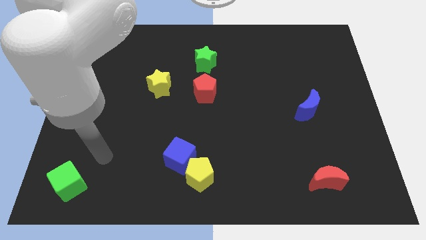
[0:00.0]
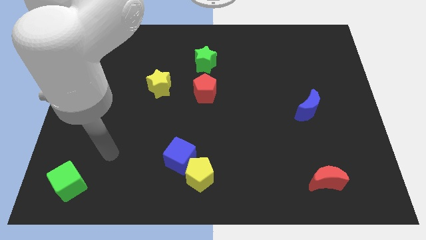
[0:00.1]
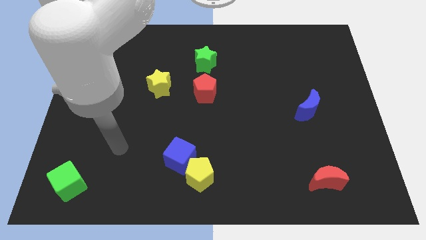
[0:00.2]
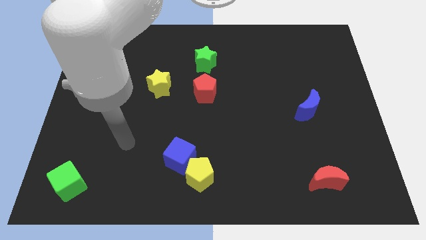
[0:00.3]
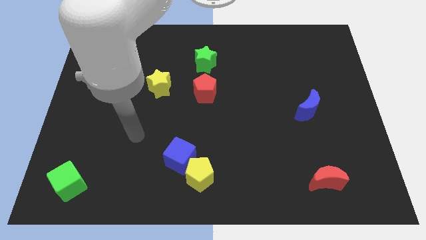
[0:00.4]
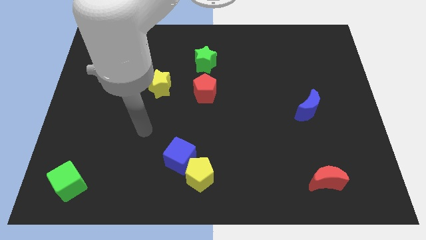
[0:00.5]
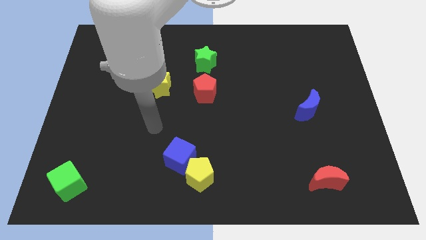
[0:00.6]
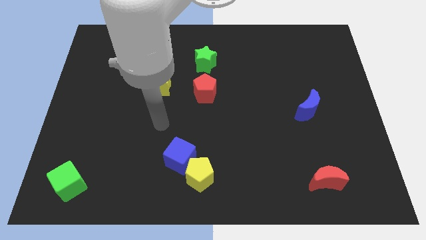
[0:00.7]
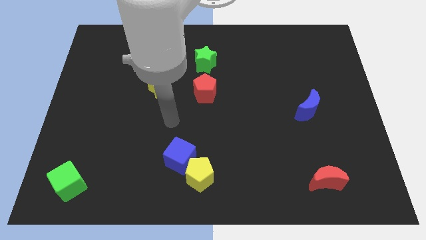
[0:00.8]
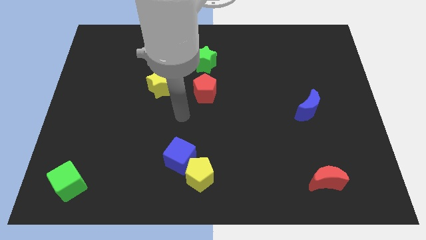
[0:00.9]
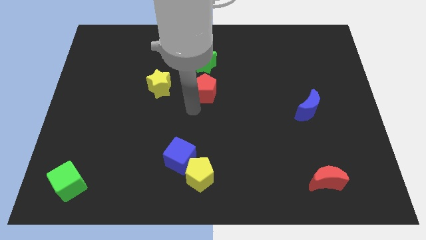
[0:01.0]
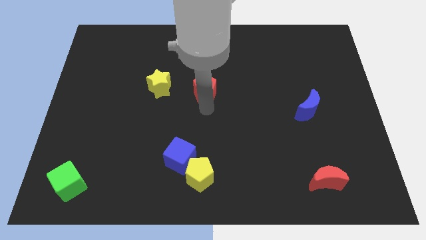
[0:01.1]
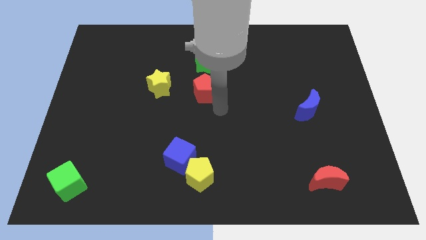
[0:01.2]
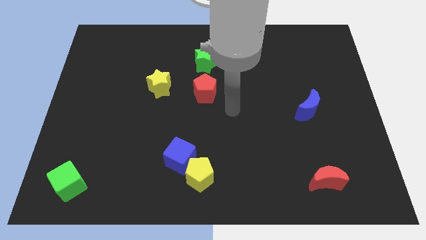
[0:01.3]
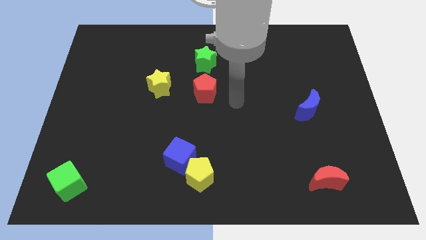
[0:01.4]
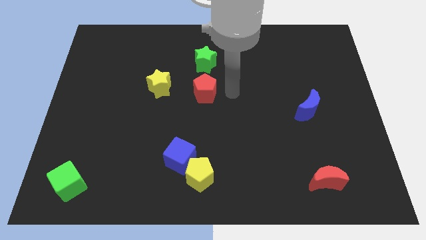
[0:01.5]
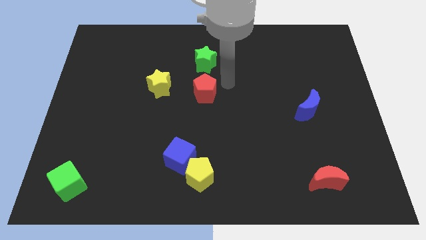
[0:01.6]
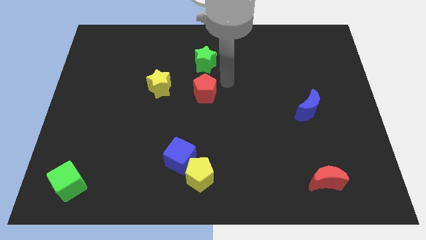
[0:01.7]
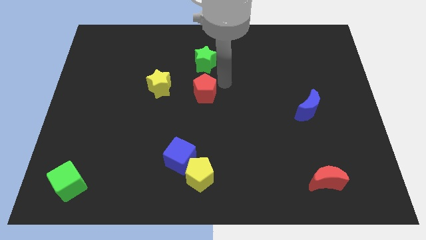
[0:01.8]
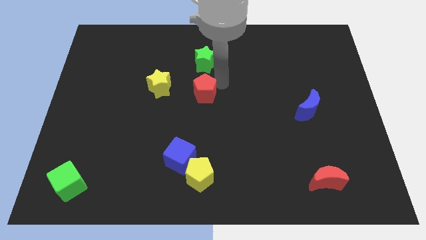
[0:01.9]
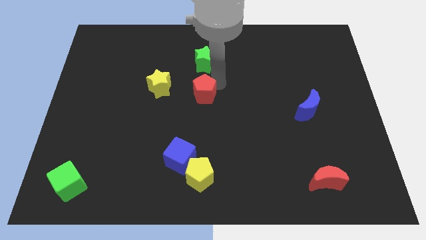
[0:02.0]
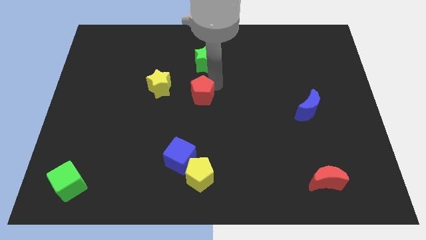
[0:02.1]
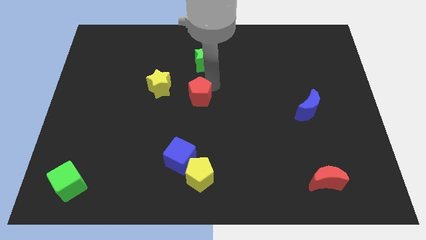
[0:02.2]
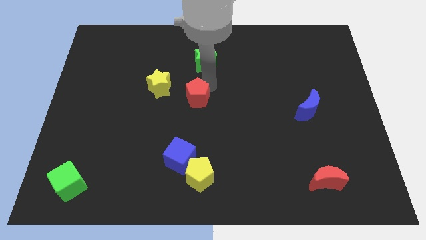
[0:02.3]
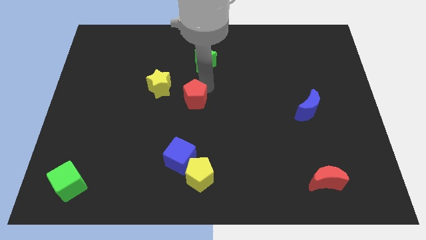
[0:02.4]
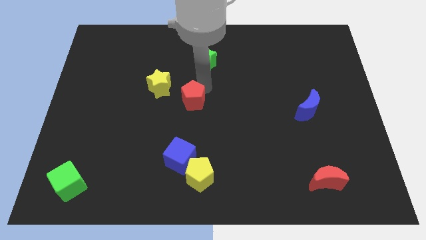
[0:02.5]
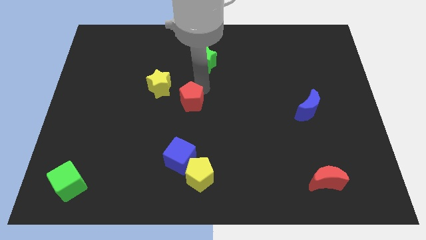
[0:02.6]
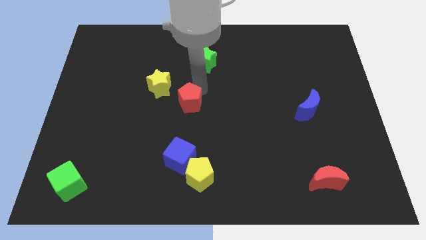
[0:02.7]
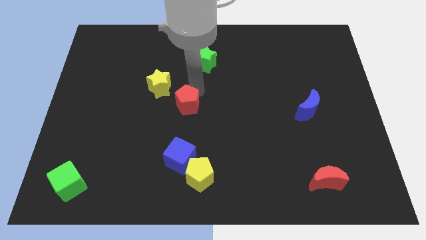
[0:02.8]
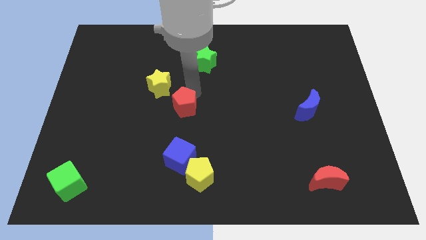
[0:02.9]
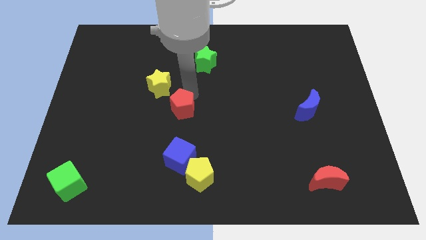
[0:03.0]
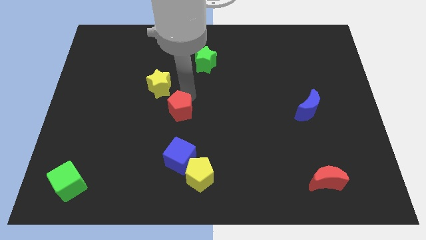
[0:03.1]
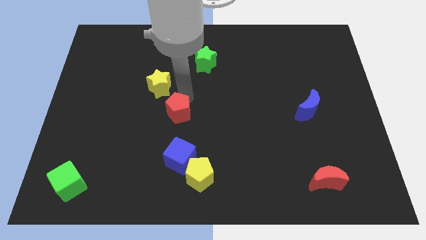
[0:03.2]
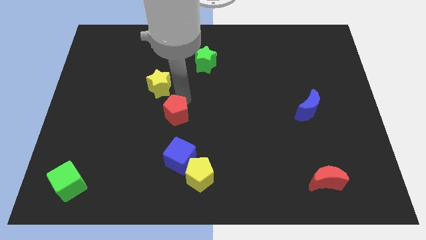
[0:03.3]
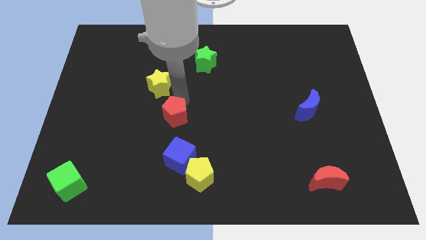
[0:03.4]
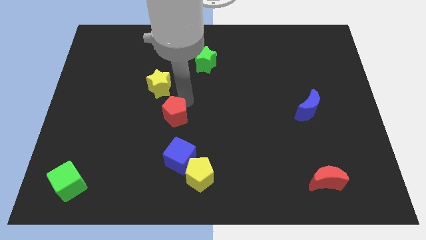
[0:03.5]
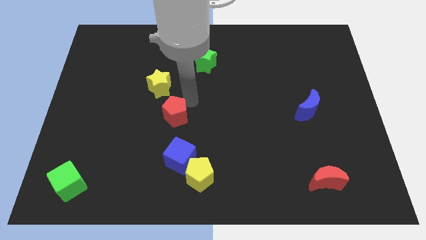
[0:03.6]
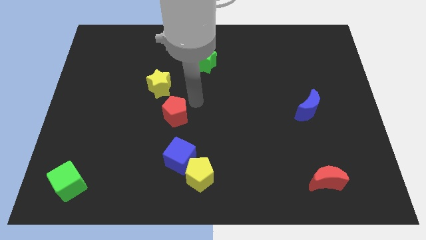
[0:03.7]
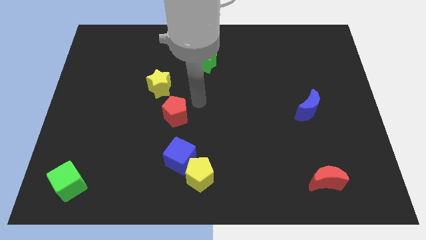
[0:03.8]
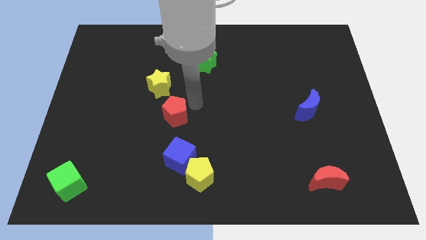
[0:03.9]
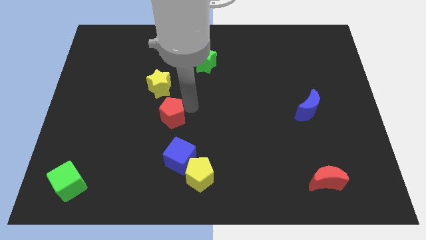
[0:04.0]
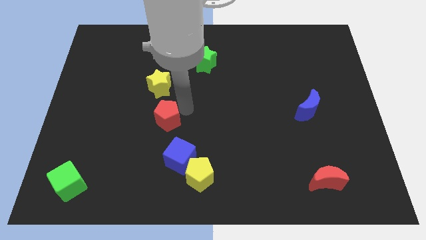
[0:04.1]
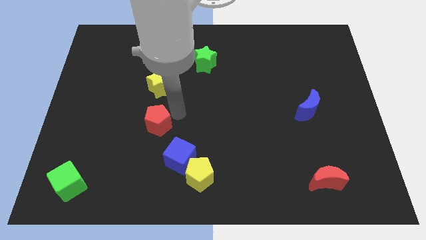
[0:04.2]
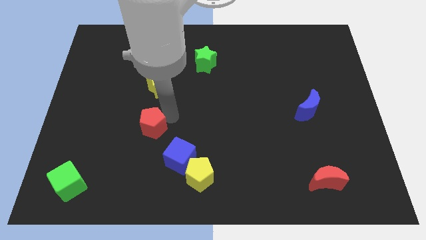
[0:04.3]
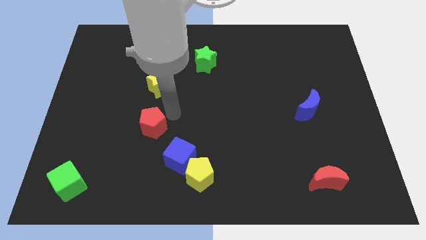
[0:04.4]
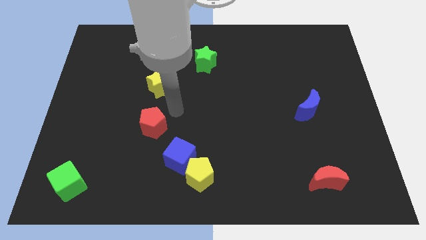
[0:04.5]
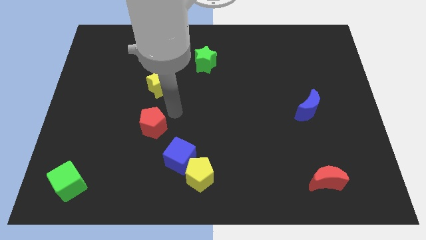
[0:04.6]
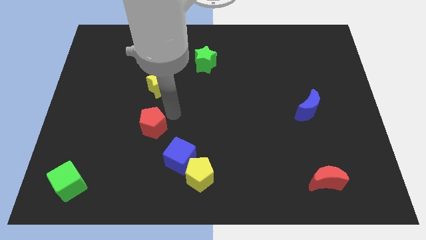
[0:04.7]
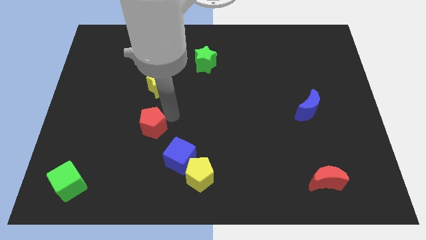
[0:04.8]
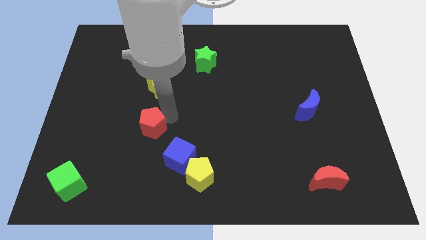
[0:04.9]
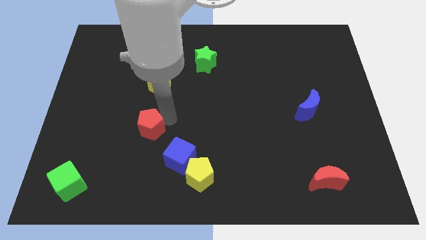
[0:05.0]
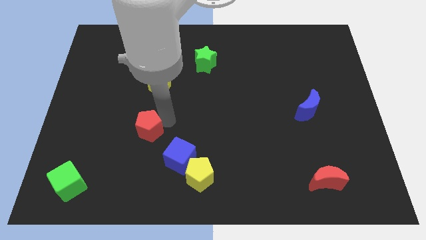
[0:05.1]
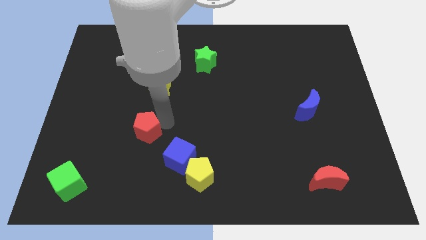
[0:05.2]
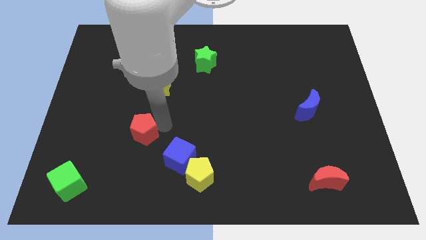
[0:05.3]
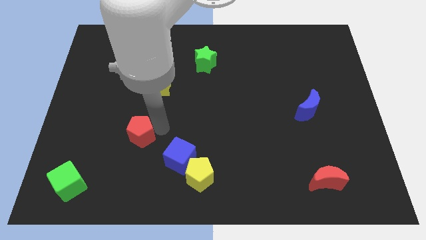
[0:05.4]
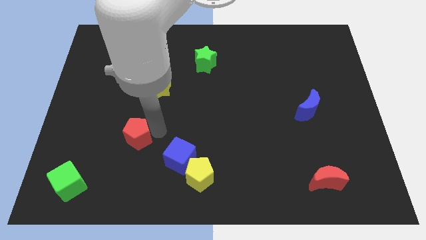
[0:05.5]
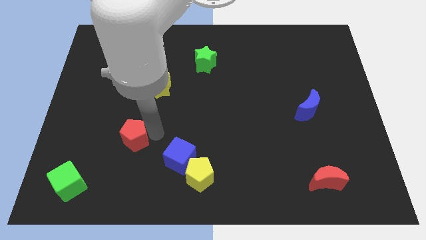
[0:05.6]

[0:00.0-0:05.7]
move the red pentagon downwards and left diagonally

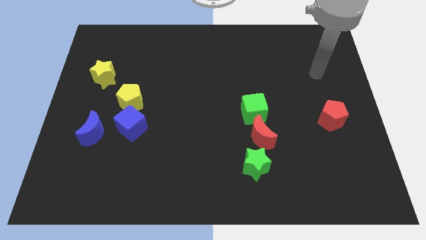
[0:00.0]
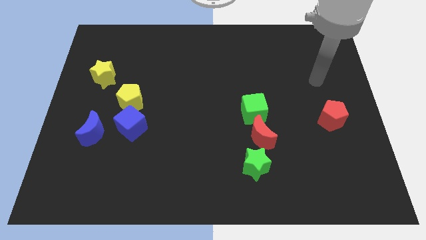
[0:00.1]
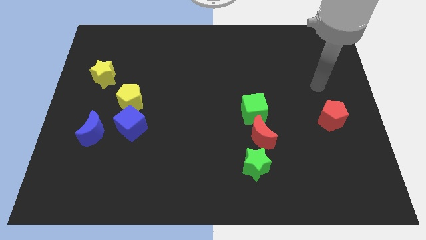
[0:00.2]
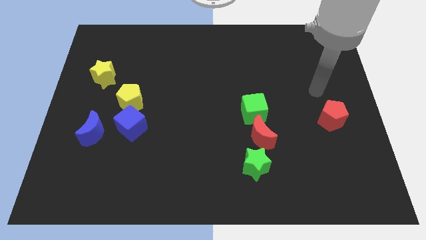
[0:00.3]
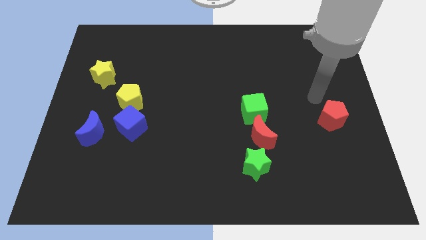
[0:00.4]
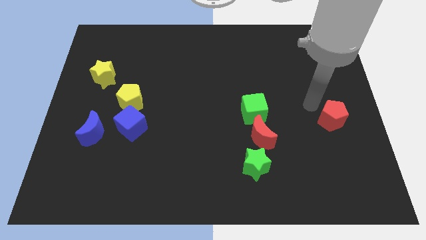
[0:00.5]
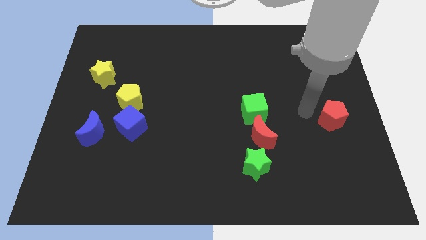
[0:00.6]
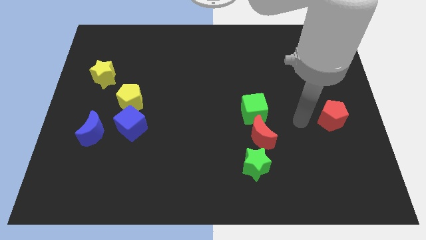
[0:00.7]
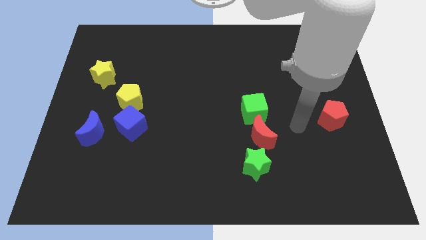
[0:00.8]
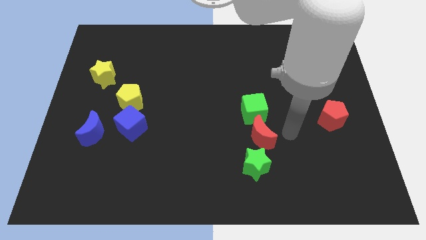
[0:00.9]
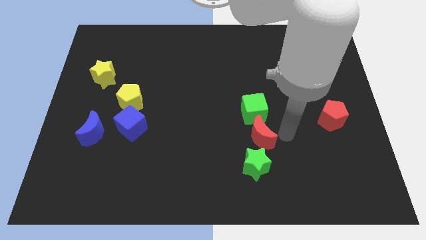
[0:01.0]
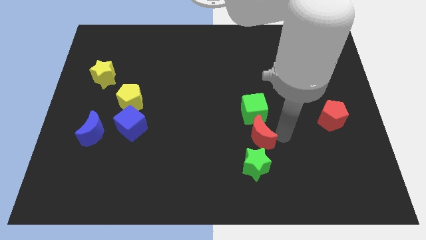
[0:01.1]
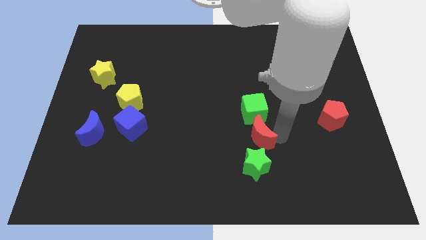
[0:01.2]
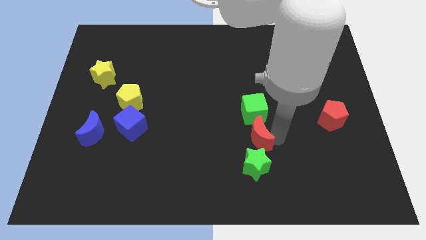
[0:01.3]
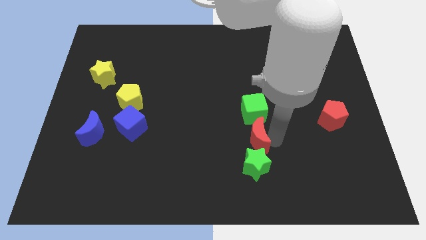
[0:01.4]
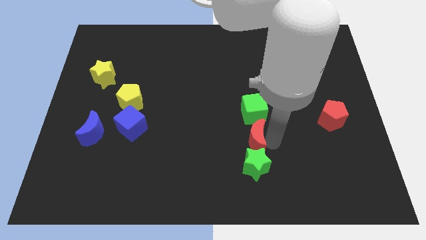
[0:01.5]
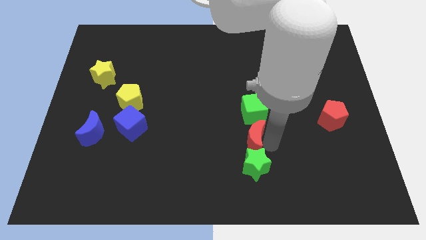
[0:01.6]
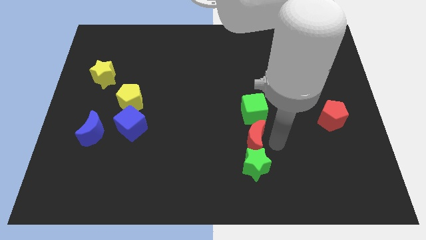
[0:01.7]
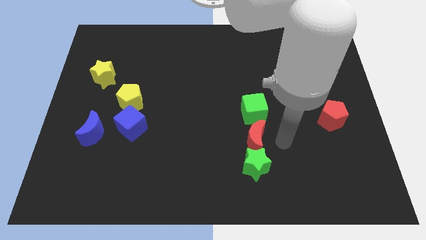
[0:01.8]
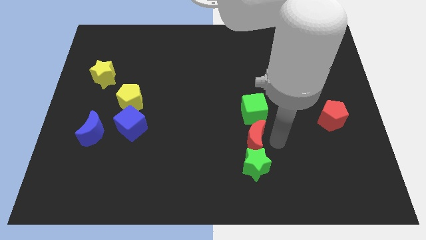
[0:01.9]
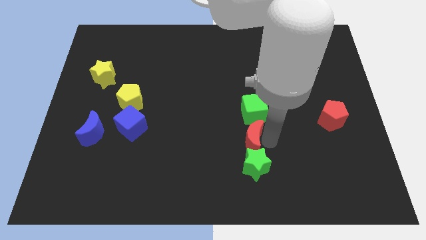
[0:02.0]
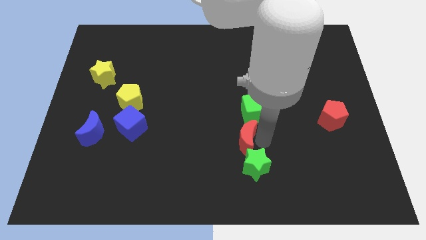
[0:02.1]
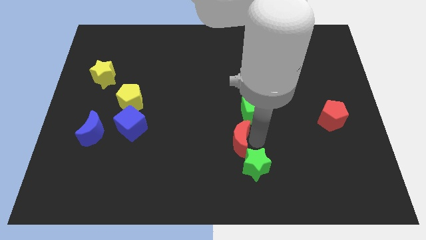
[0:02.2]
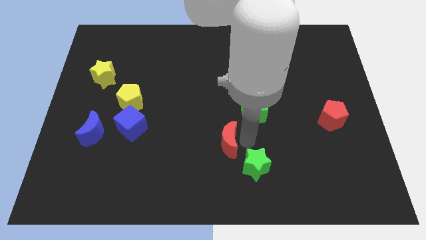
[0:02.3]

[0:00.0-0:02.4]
move the red moon left a bit
